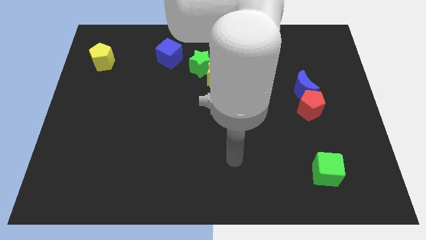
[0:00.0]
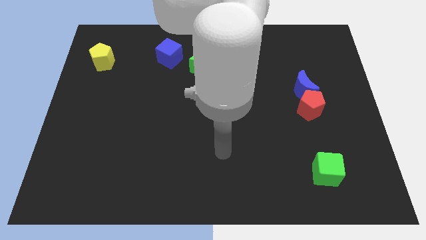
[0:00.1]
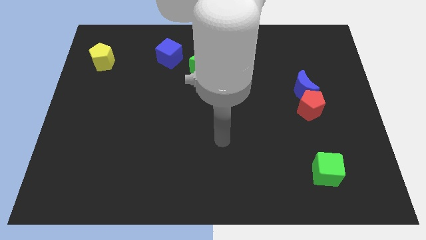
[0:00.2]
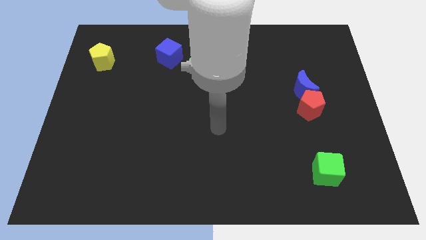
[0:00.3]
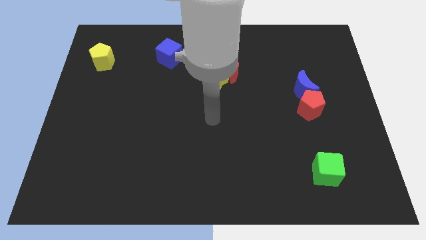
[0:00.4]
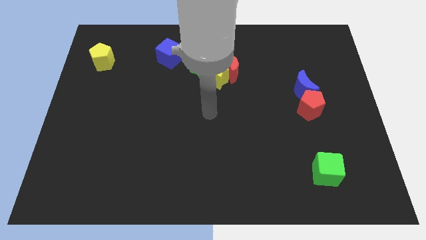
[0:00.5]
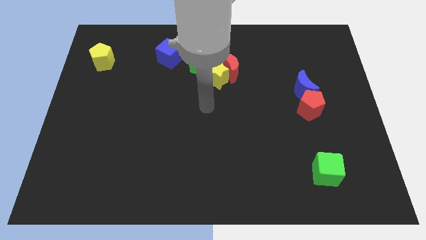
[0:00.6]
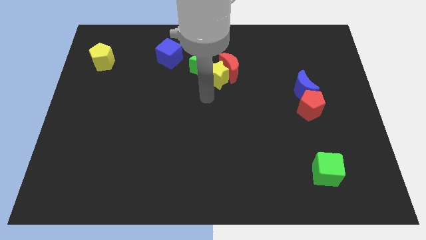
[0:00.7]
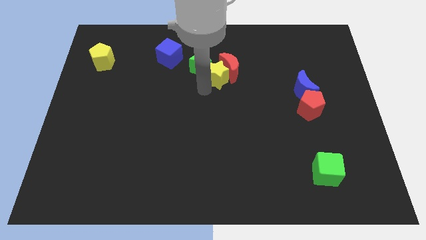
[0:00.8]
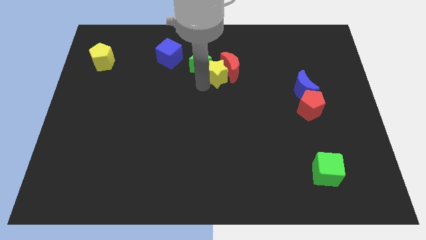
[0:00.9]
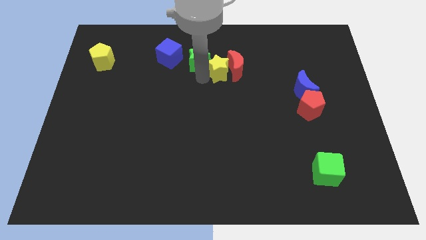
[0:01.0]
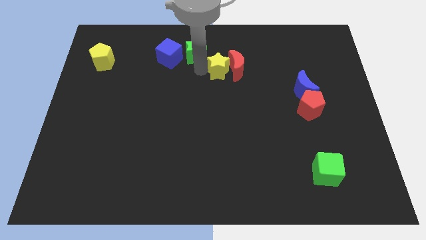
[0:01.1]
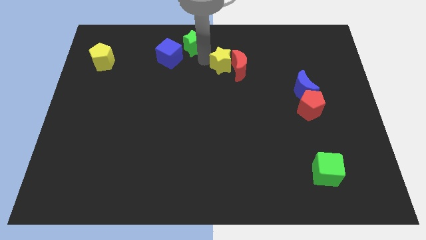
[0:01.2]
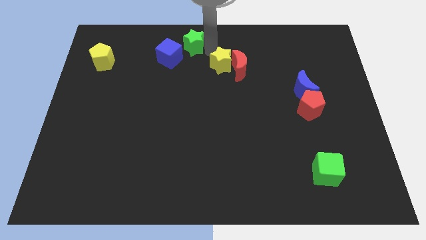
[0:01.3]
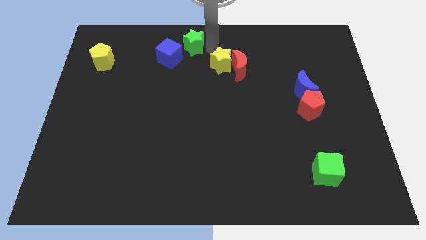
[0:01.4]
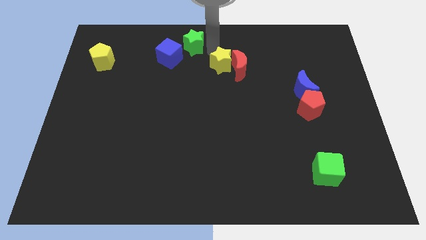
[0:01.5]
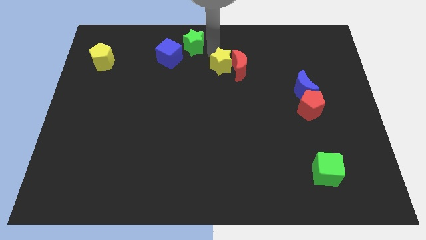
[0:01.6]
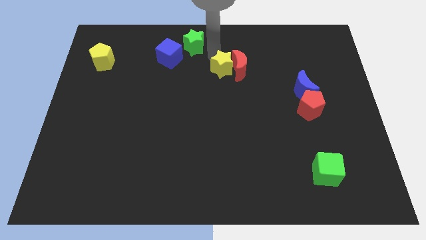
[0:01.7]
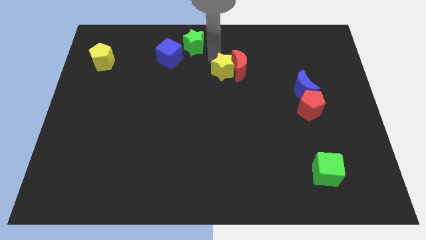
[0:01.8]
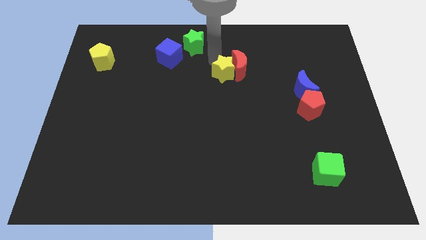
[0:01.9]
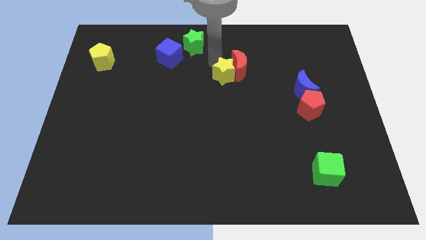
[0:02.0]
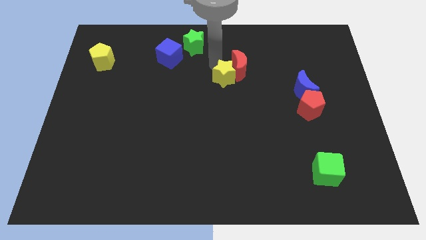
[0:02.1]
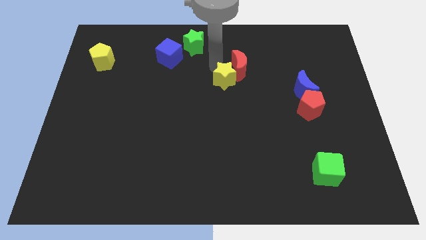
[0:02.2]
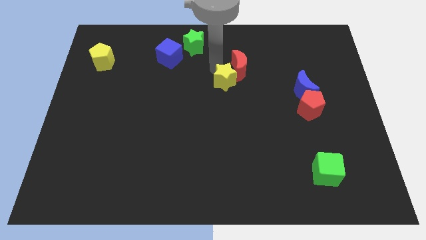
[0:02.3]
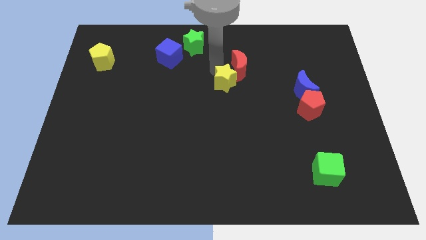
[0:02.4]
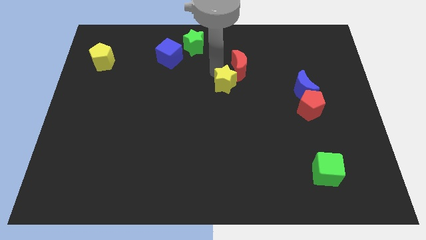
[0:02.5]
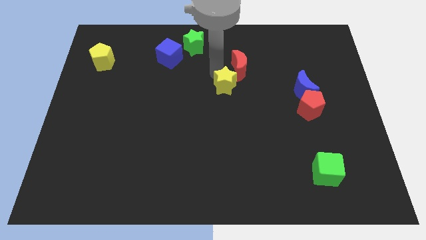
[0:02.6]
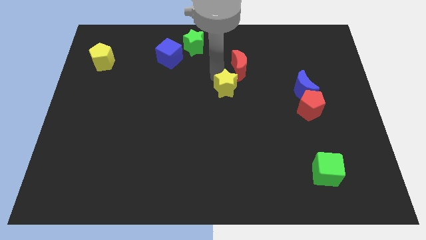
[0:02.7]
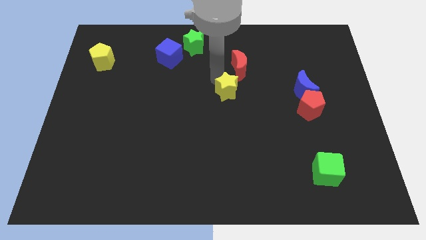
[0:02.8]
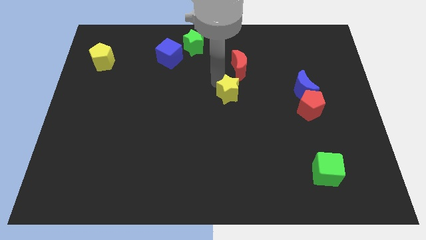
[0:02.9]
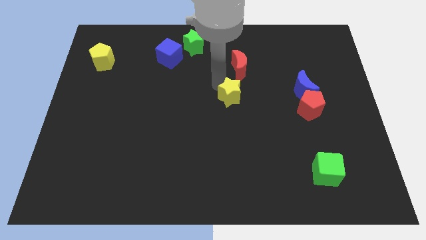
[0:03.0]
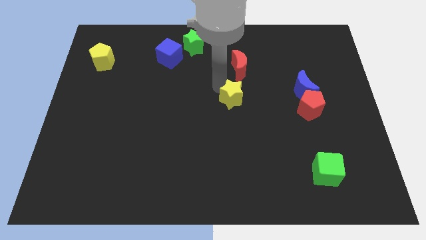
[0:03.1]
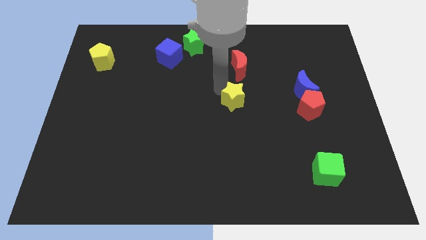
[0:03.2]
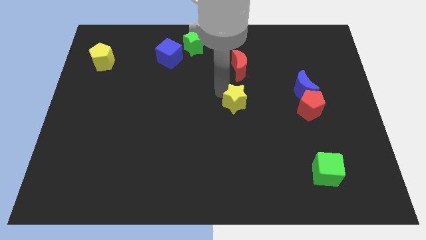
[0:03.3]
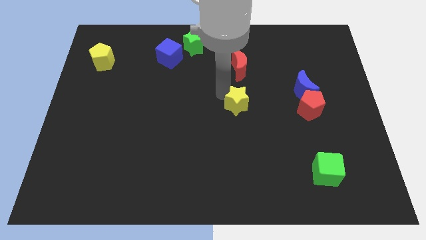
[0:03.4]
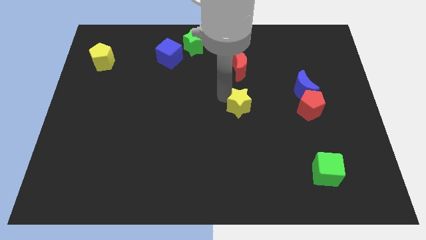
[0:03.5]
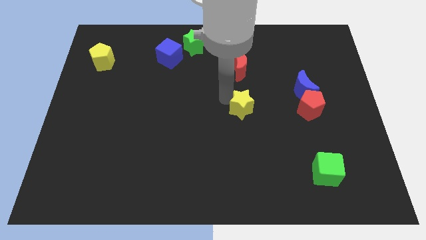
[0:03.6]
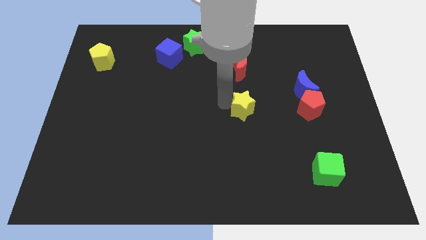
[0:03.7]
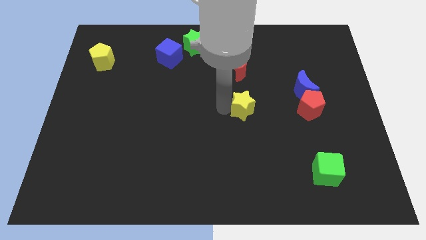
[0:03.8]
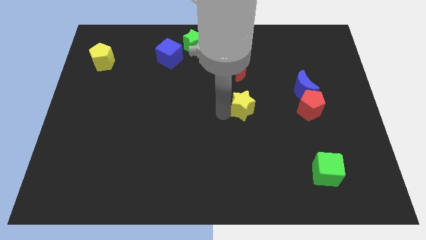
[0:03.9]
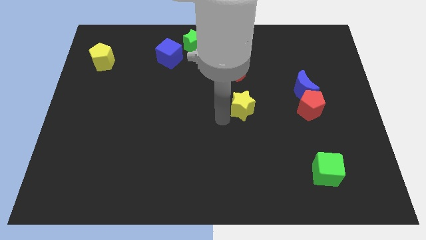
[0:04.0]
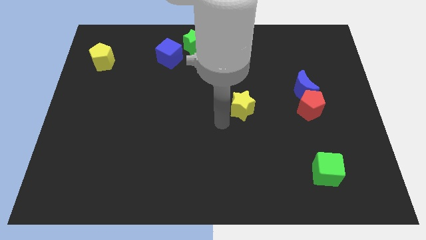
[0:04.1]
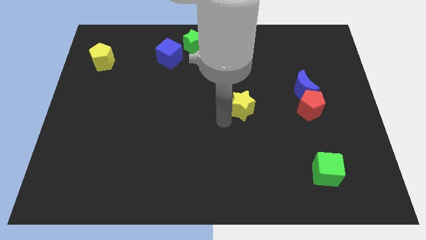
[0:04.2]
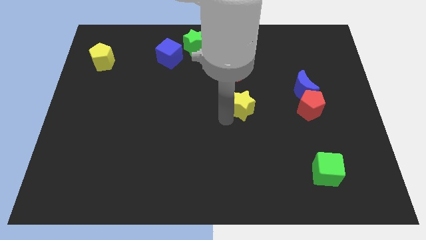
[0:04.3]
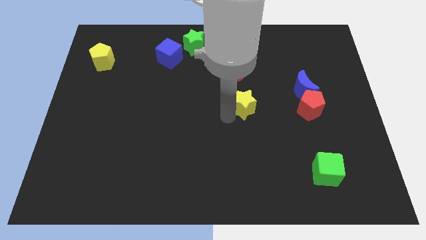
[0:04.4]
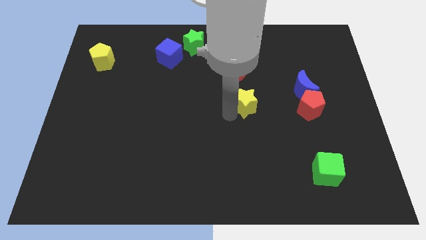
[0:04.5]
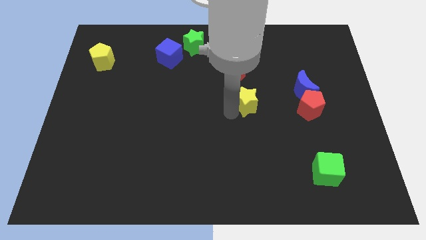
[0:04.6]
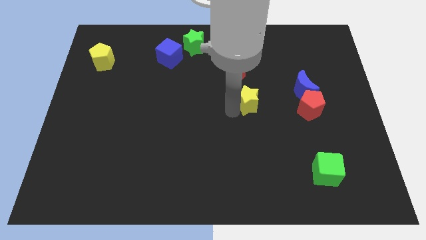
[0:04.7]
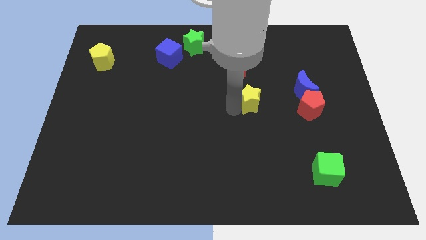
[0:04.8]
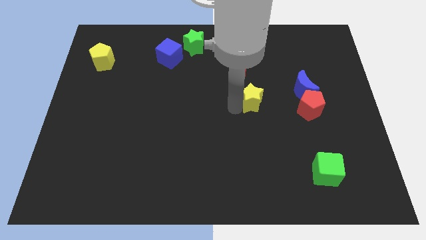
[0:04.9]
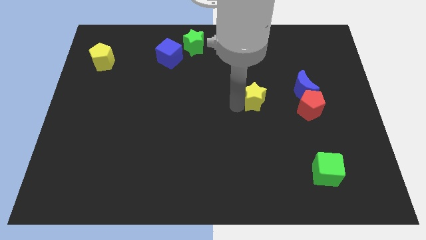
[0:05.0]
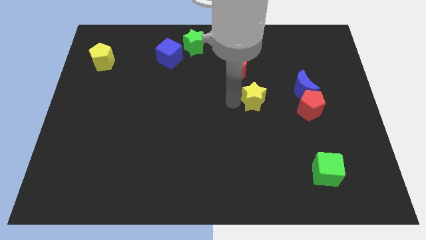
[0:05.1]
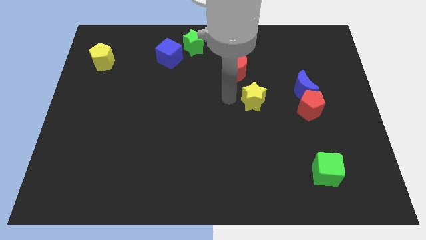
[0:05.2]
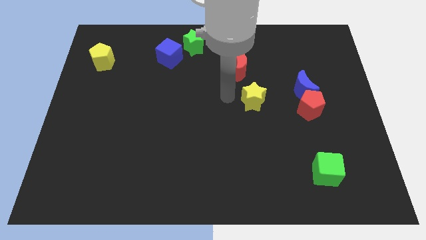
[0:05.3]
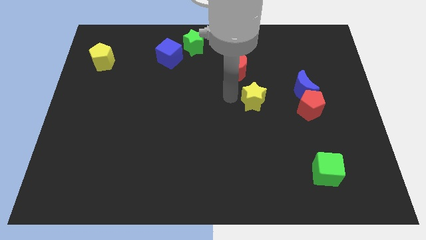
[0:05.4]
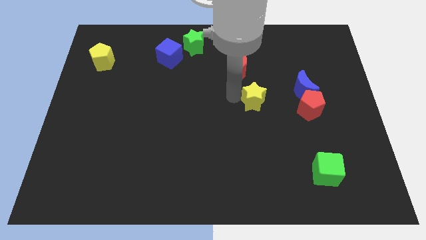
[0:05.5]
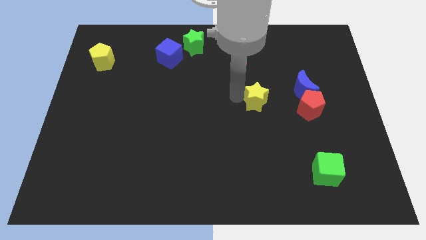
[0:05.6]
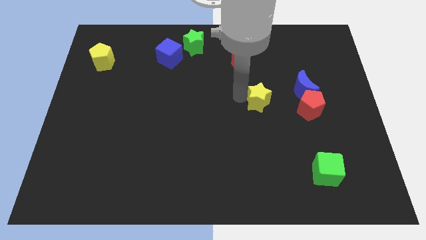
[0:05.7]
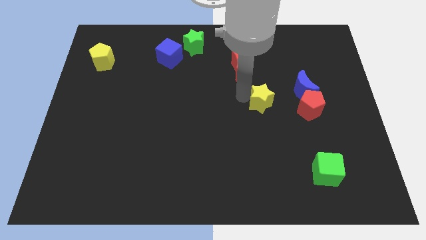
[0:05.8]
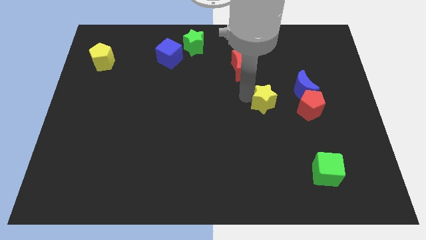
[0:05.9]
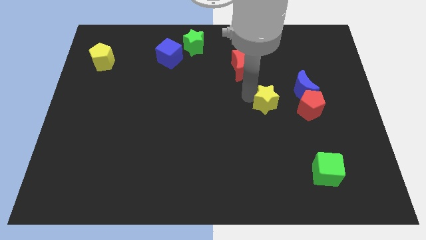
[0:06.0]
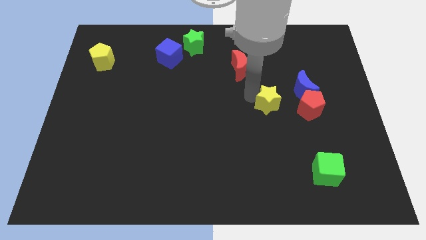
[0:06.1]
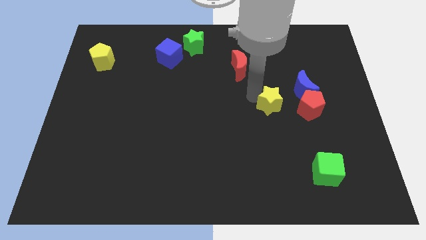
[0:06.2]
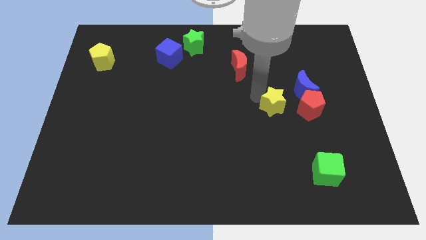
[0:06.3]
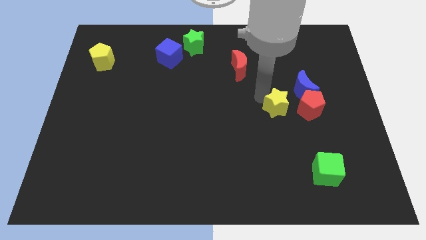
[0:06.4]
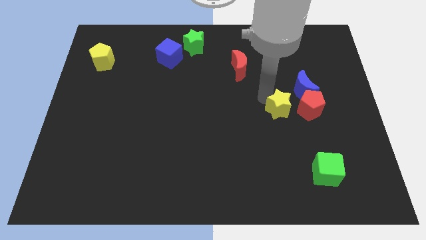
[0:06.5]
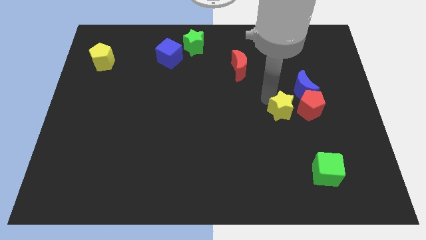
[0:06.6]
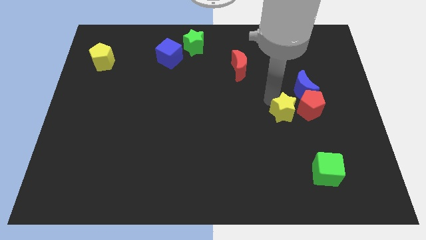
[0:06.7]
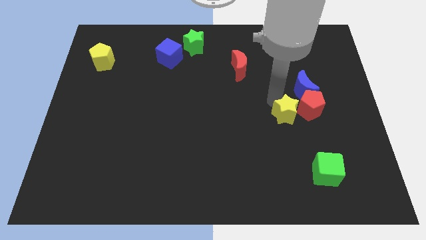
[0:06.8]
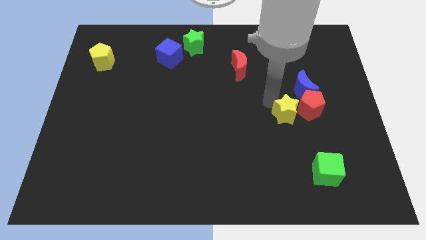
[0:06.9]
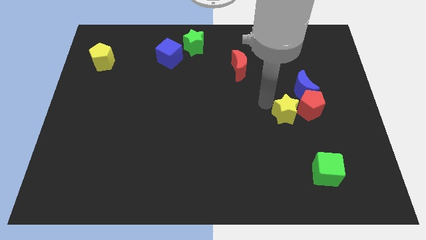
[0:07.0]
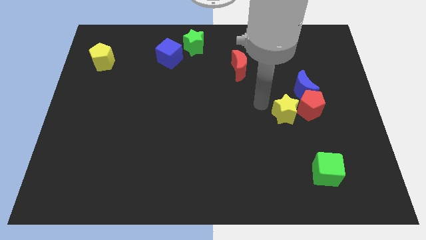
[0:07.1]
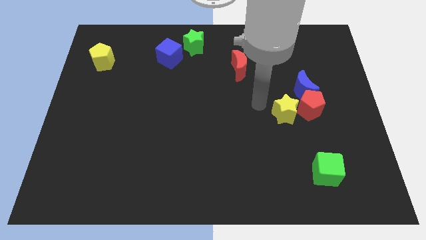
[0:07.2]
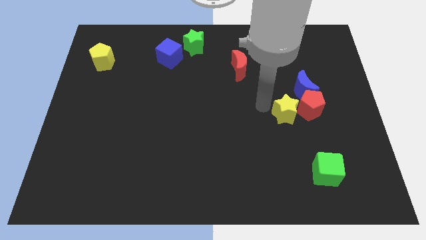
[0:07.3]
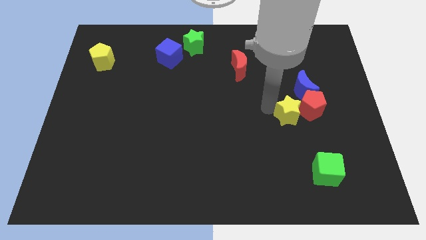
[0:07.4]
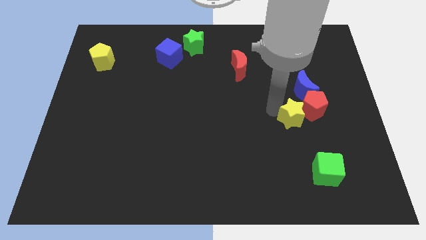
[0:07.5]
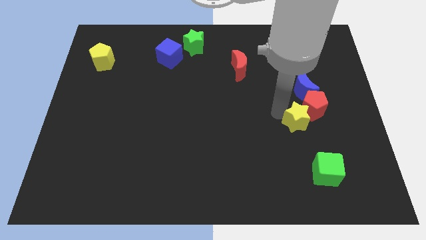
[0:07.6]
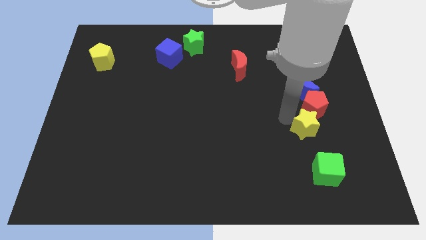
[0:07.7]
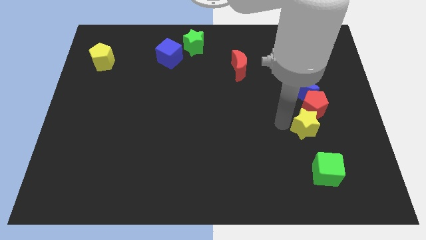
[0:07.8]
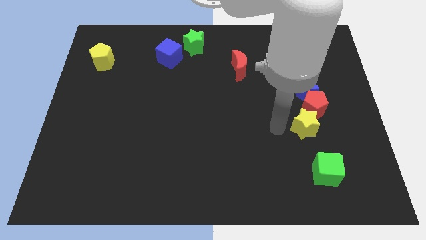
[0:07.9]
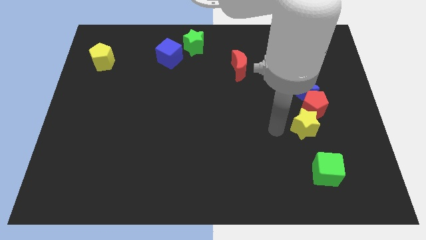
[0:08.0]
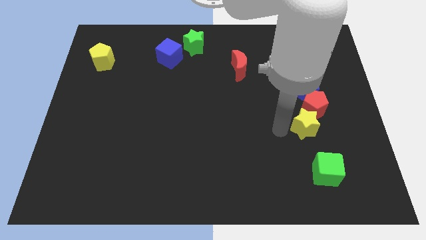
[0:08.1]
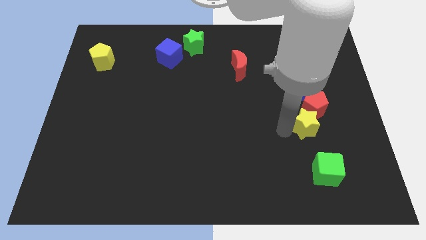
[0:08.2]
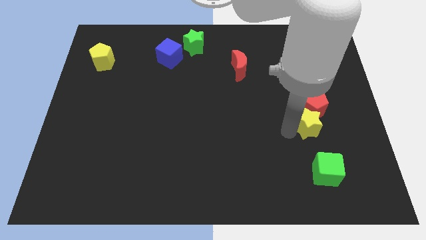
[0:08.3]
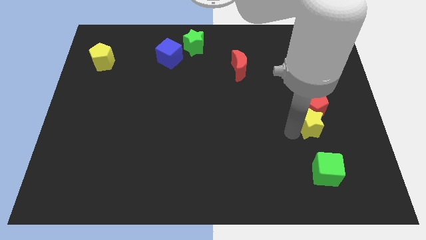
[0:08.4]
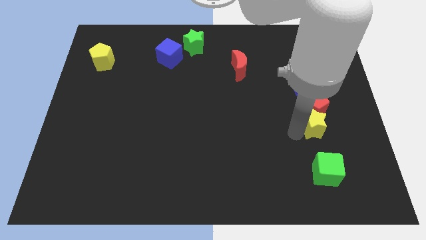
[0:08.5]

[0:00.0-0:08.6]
move the yellow star diagonally down and to the right of the red pentagon
